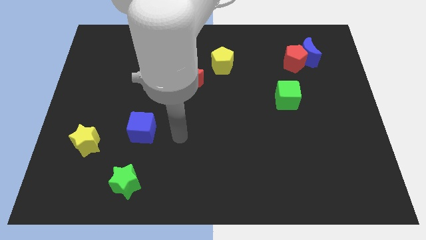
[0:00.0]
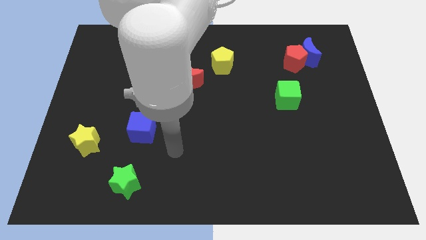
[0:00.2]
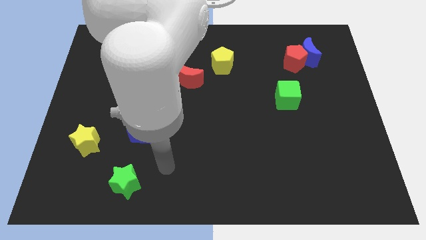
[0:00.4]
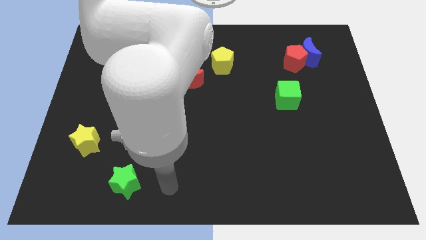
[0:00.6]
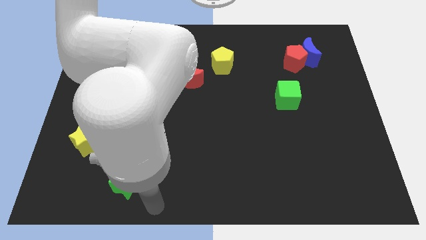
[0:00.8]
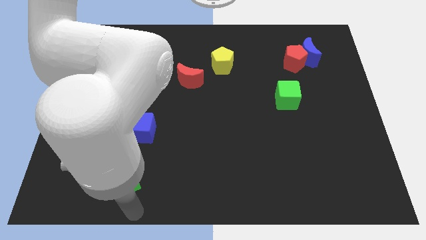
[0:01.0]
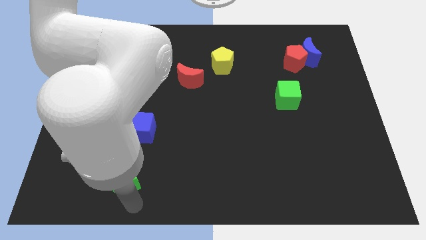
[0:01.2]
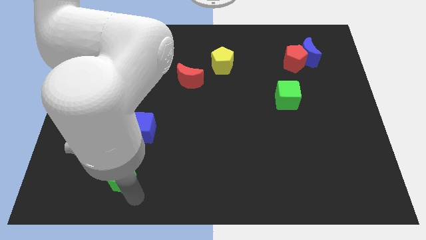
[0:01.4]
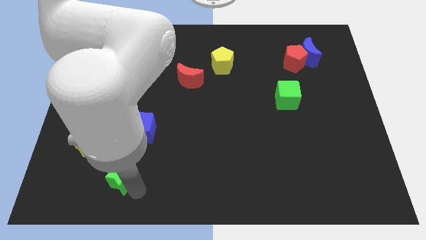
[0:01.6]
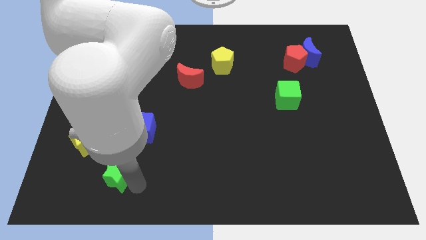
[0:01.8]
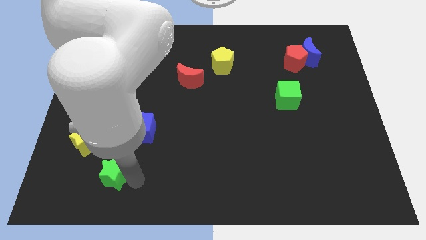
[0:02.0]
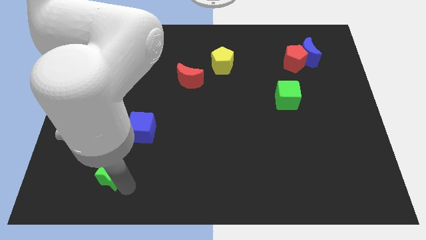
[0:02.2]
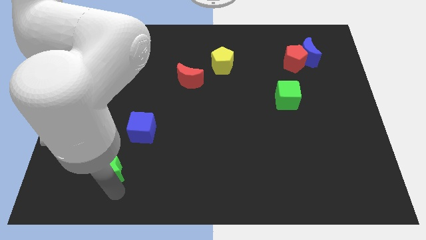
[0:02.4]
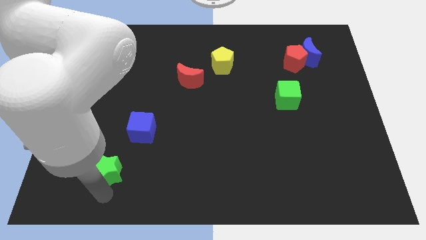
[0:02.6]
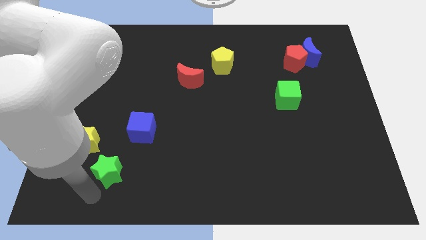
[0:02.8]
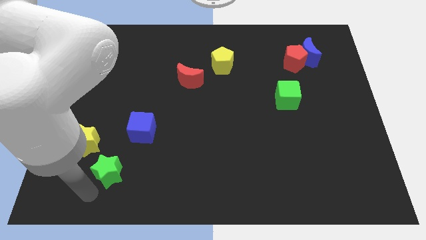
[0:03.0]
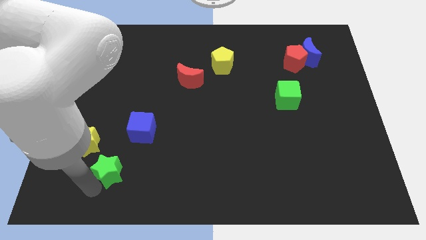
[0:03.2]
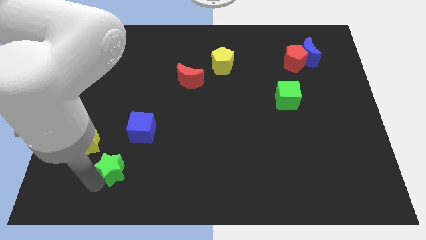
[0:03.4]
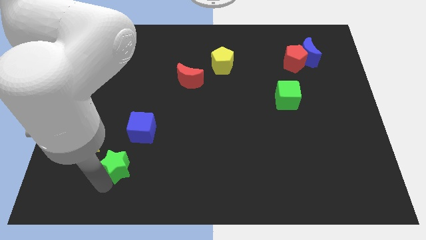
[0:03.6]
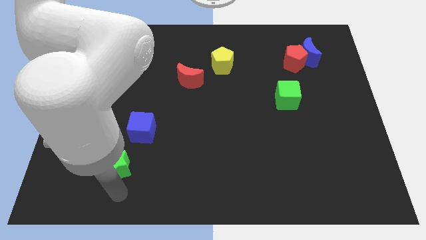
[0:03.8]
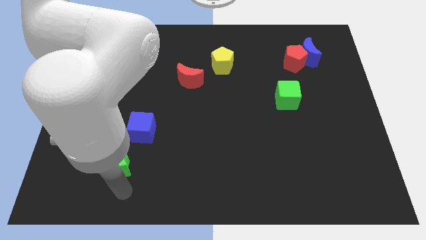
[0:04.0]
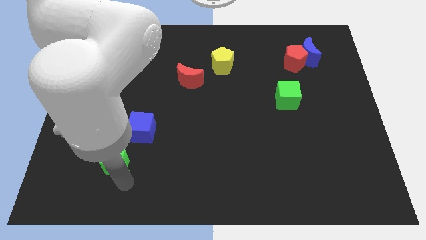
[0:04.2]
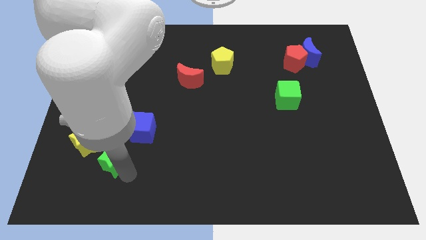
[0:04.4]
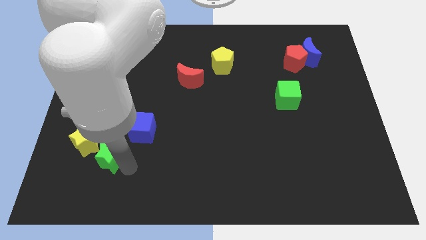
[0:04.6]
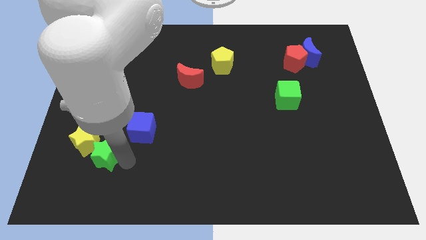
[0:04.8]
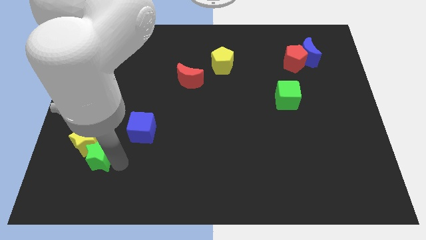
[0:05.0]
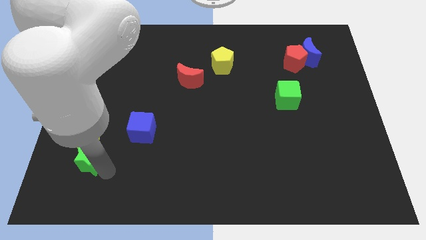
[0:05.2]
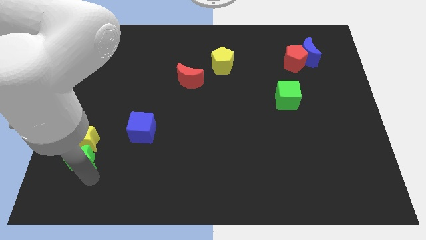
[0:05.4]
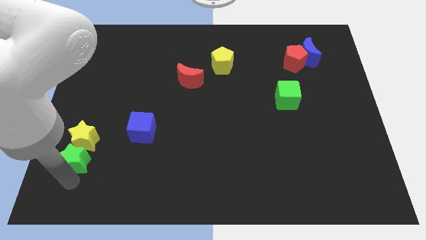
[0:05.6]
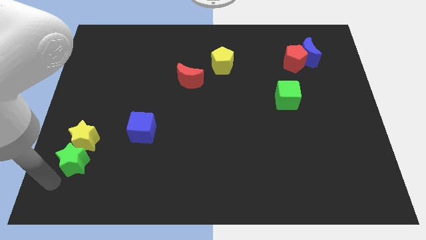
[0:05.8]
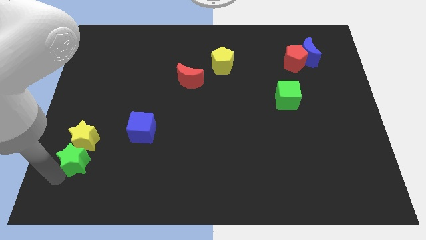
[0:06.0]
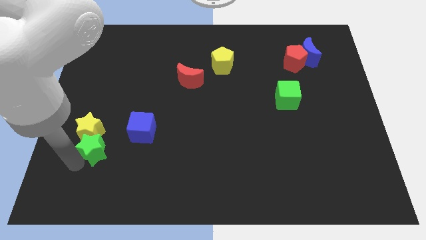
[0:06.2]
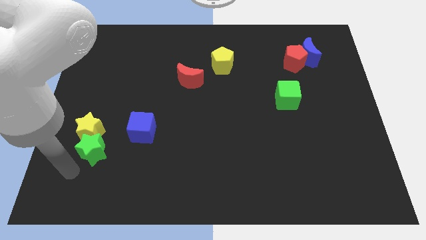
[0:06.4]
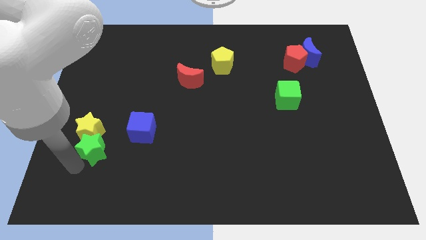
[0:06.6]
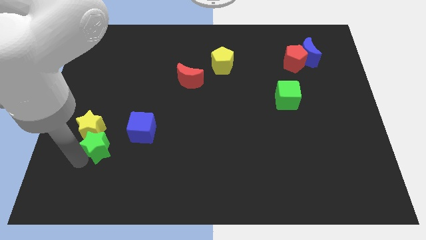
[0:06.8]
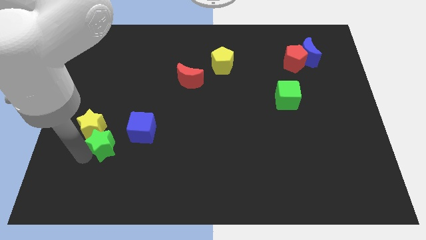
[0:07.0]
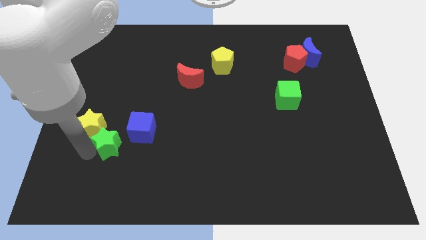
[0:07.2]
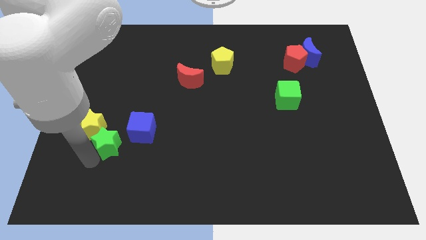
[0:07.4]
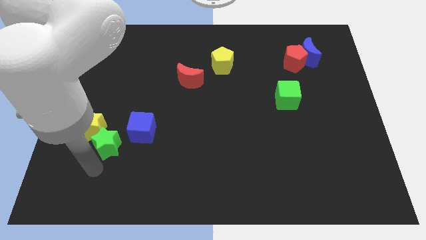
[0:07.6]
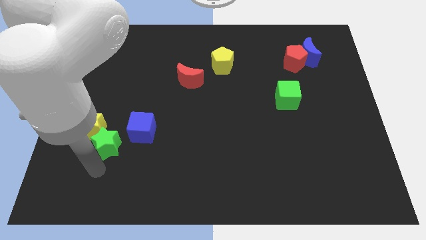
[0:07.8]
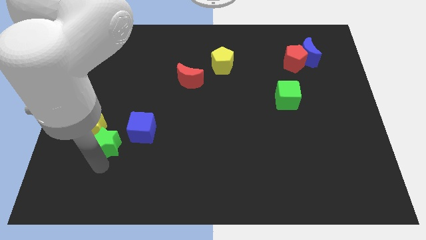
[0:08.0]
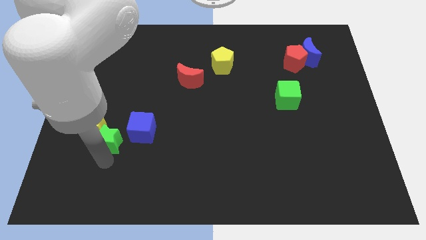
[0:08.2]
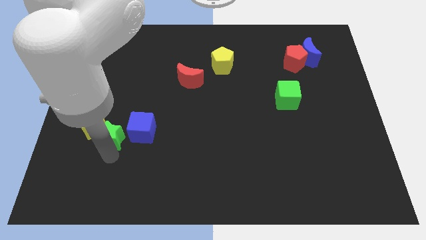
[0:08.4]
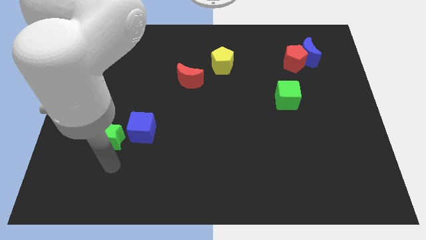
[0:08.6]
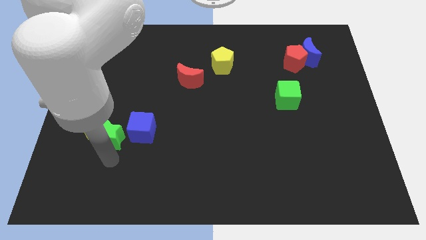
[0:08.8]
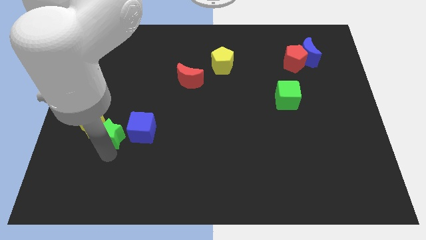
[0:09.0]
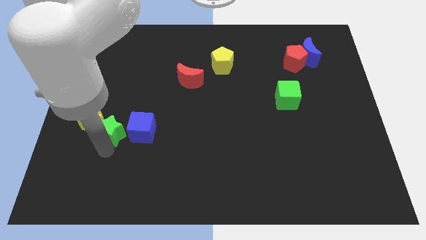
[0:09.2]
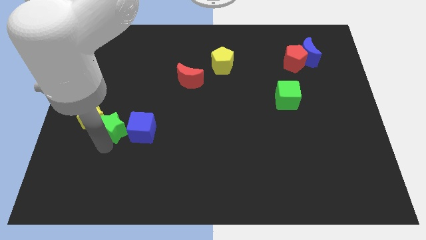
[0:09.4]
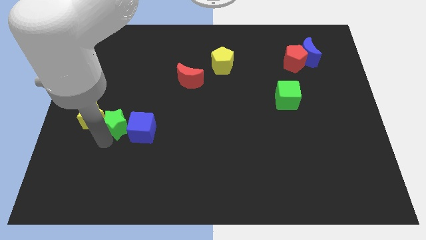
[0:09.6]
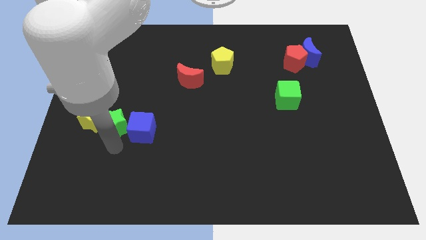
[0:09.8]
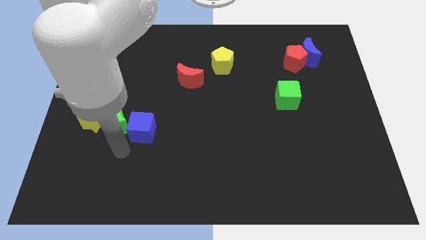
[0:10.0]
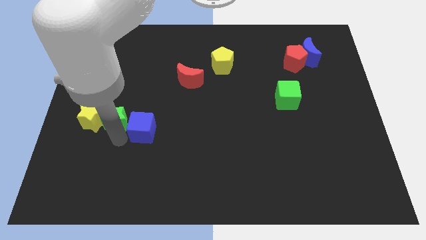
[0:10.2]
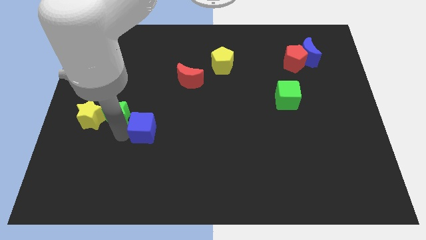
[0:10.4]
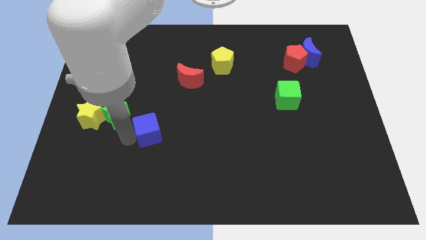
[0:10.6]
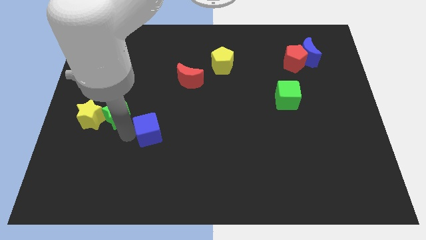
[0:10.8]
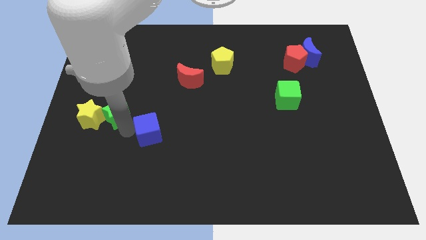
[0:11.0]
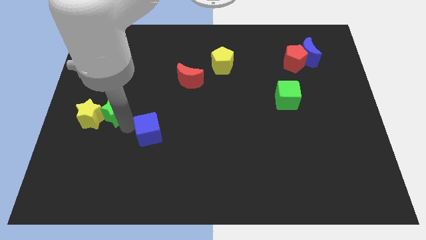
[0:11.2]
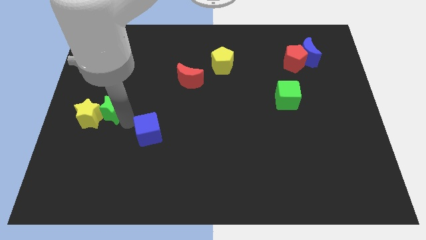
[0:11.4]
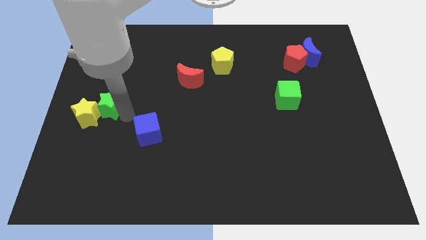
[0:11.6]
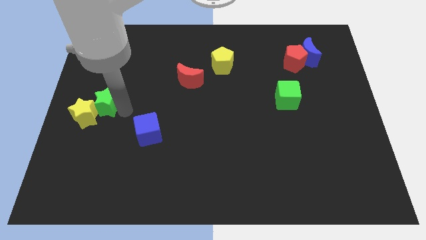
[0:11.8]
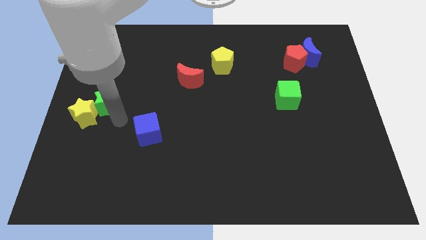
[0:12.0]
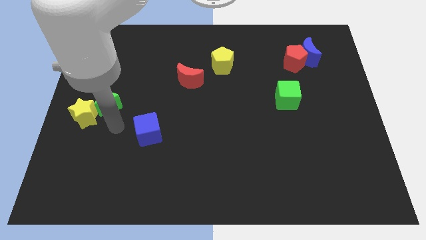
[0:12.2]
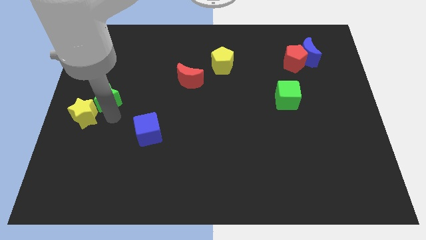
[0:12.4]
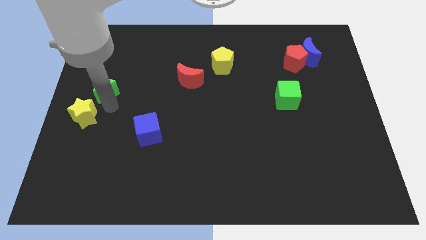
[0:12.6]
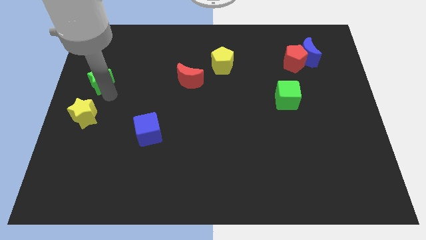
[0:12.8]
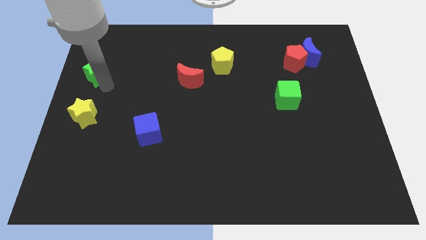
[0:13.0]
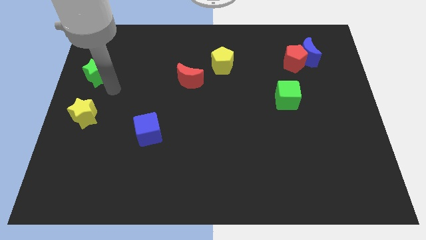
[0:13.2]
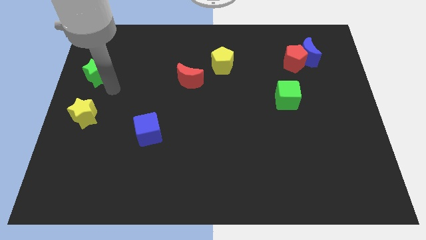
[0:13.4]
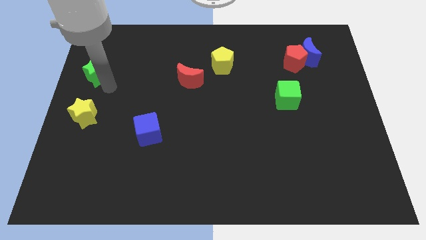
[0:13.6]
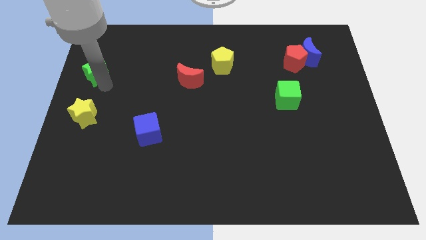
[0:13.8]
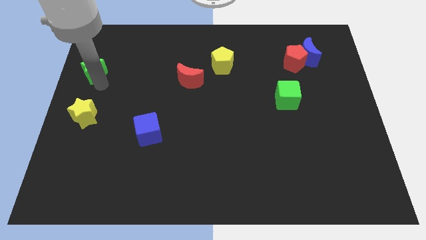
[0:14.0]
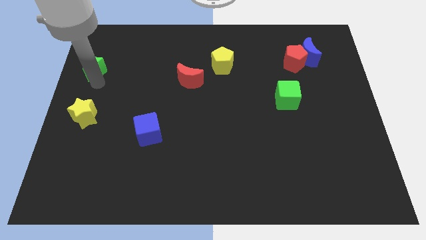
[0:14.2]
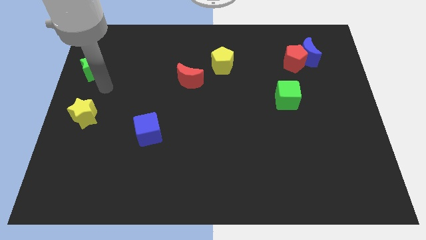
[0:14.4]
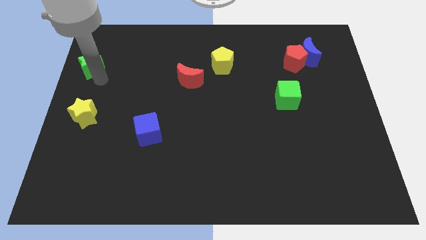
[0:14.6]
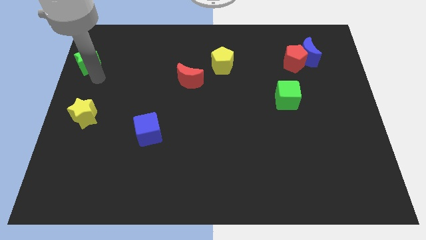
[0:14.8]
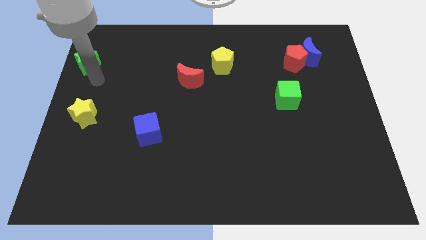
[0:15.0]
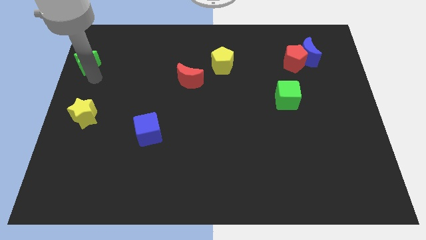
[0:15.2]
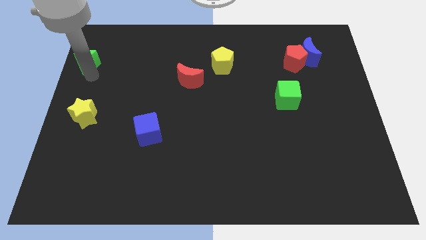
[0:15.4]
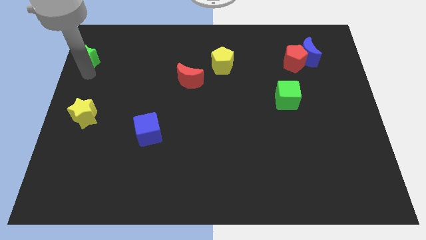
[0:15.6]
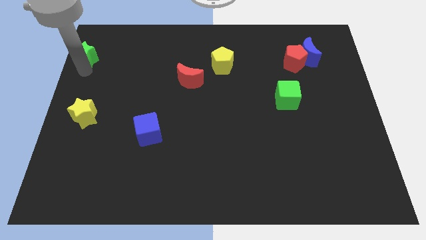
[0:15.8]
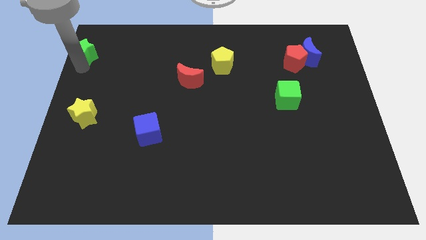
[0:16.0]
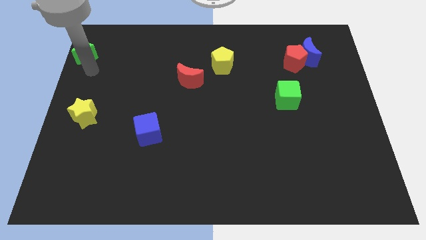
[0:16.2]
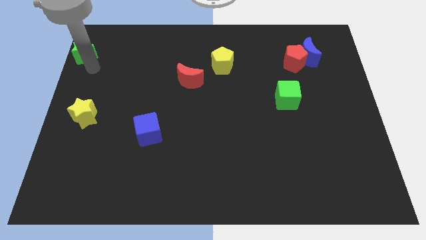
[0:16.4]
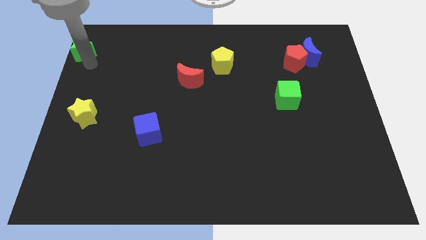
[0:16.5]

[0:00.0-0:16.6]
put the green star to the top left
